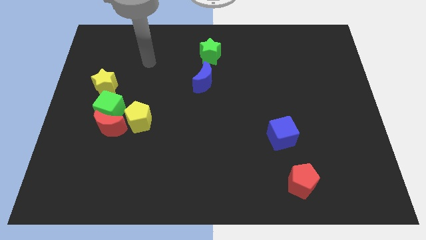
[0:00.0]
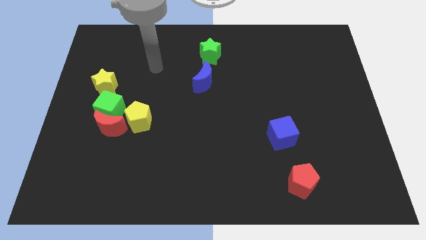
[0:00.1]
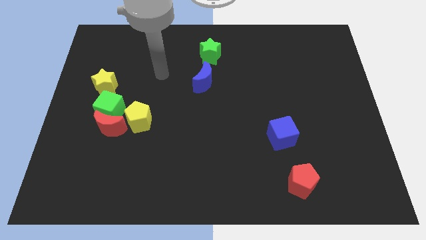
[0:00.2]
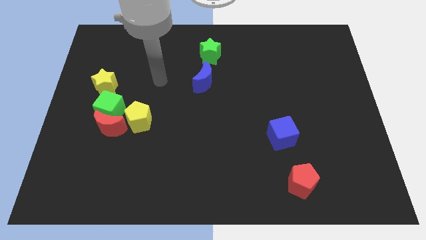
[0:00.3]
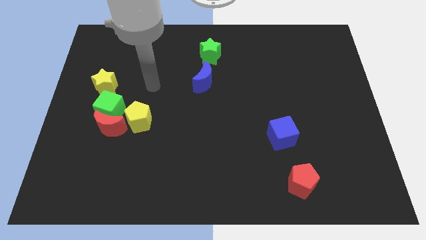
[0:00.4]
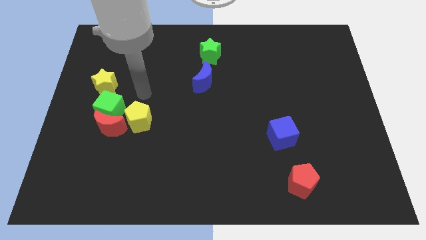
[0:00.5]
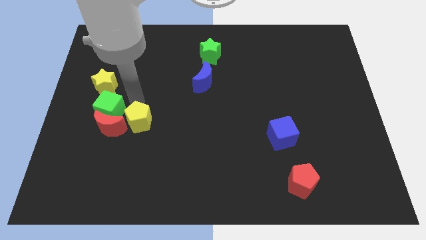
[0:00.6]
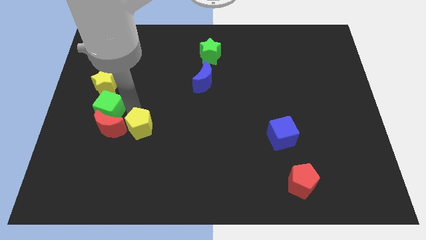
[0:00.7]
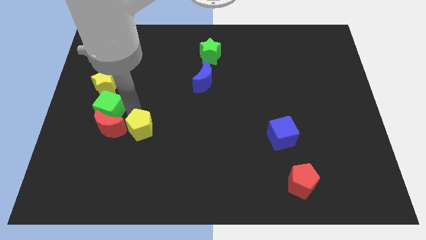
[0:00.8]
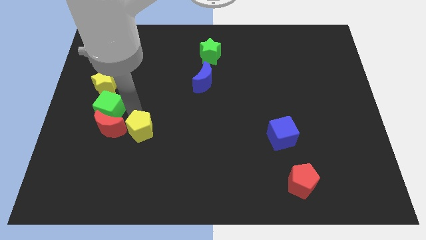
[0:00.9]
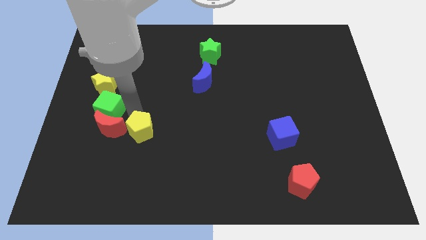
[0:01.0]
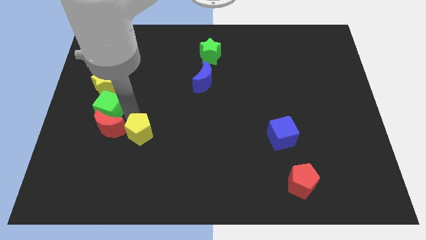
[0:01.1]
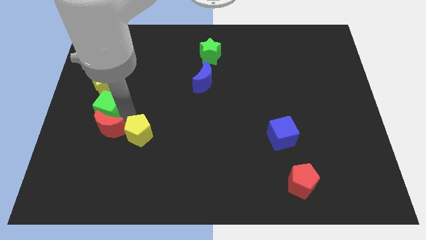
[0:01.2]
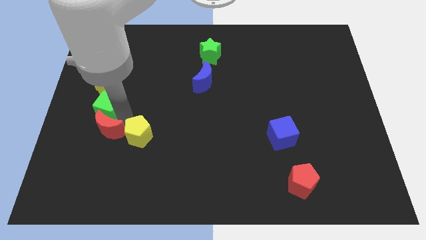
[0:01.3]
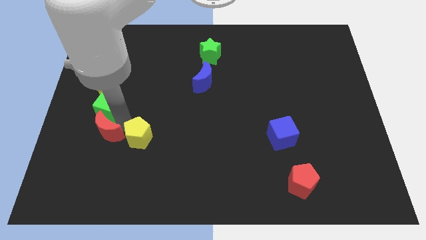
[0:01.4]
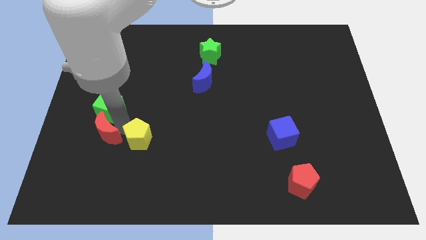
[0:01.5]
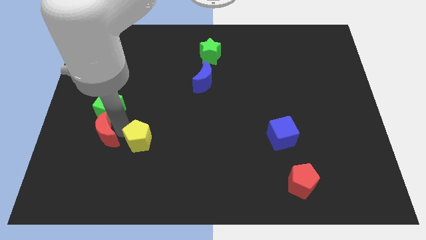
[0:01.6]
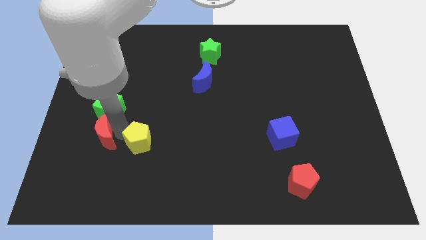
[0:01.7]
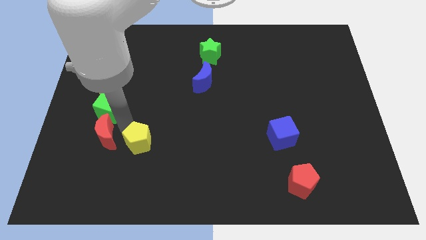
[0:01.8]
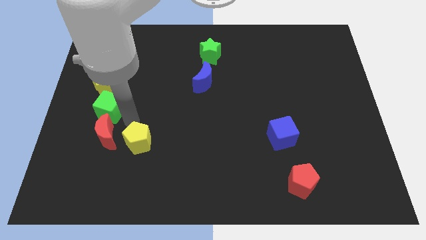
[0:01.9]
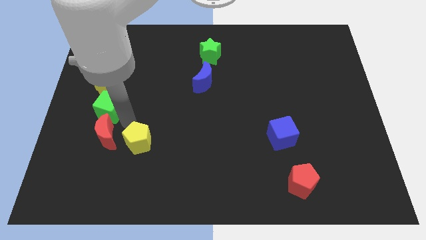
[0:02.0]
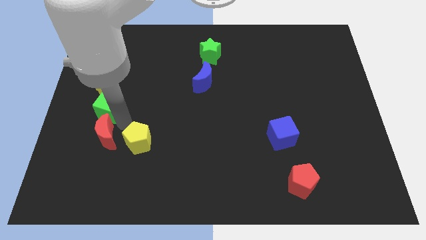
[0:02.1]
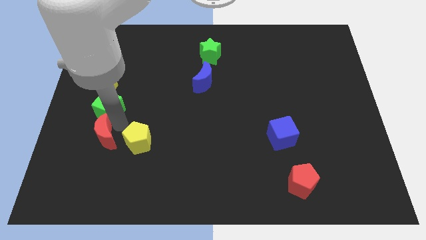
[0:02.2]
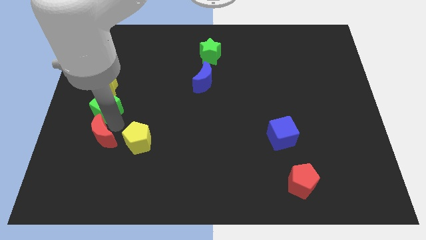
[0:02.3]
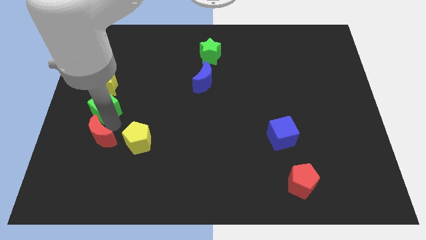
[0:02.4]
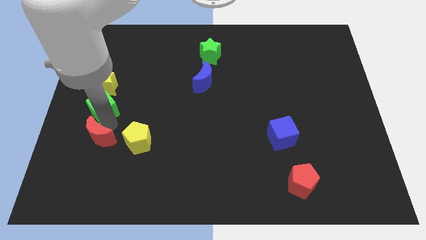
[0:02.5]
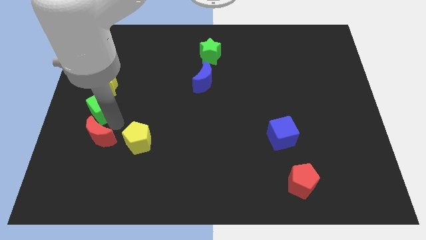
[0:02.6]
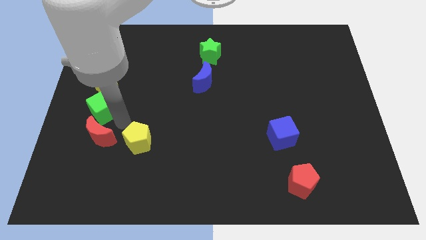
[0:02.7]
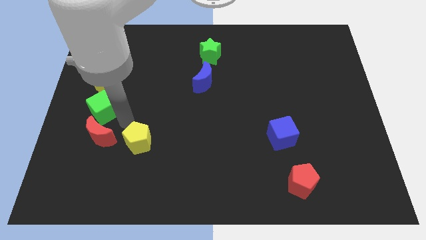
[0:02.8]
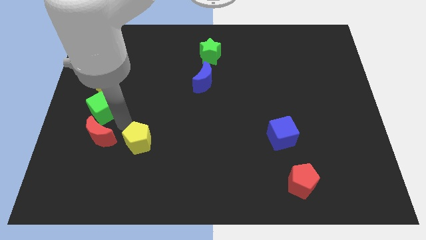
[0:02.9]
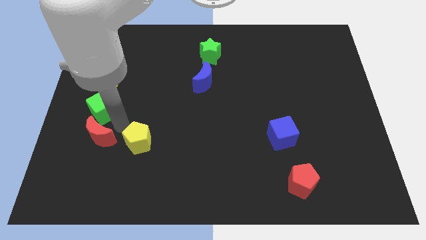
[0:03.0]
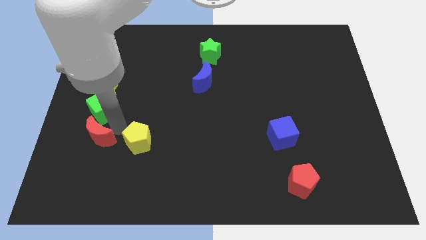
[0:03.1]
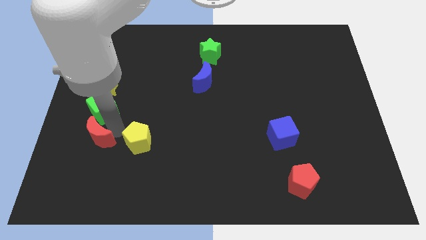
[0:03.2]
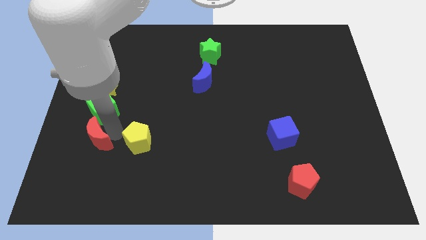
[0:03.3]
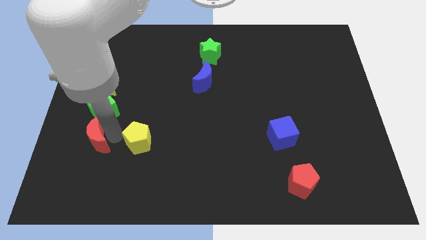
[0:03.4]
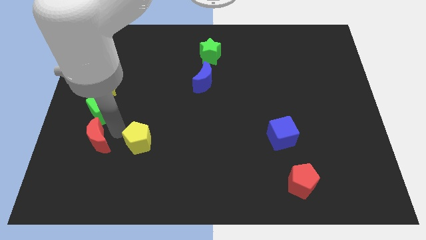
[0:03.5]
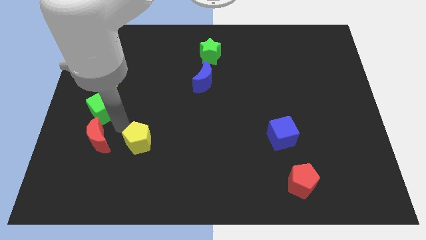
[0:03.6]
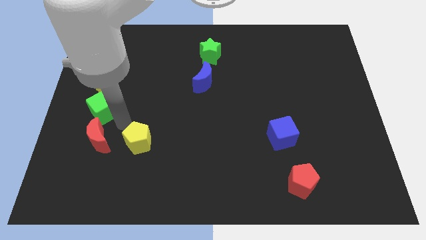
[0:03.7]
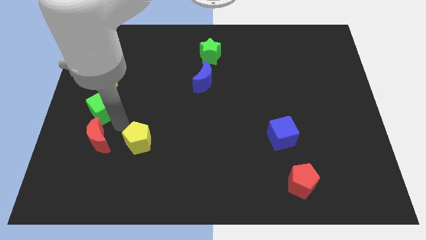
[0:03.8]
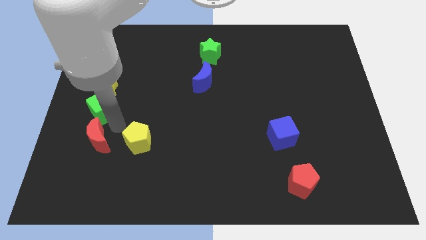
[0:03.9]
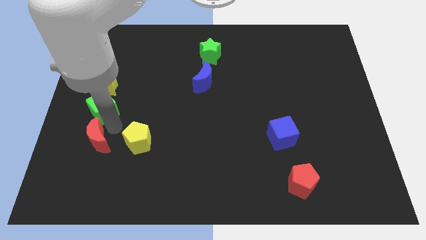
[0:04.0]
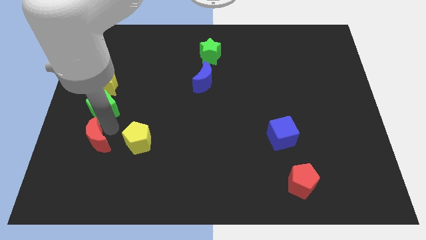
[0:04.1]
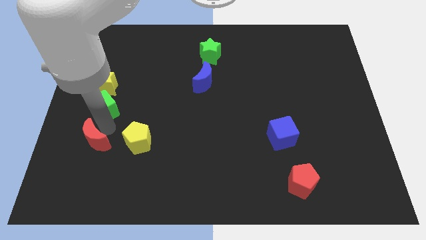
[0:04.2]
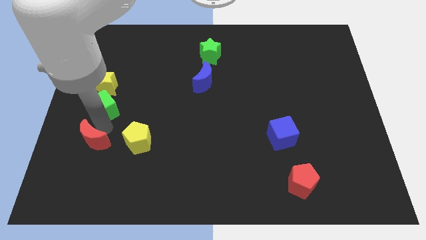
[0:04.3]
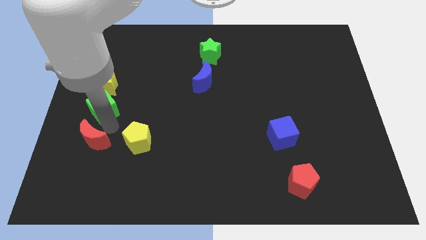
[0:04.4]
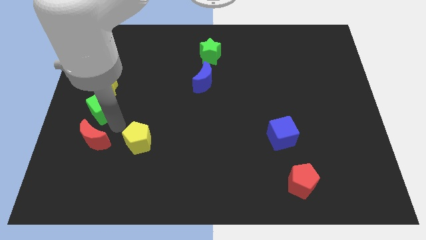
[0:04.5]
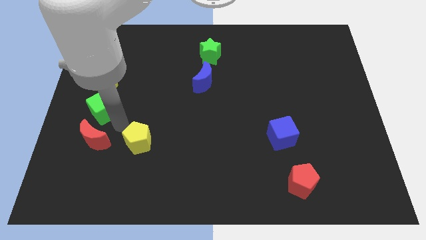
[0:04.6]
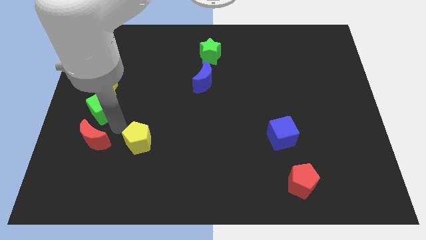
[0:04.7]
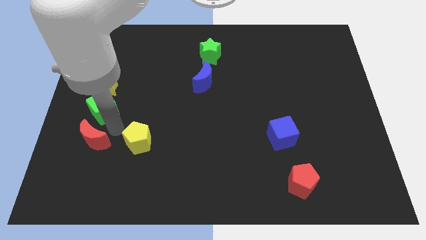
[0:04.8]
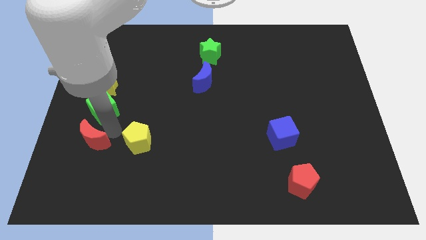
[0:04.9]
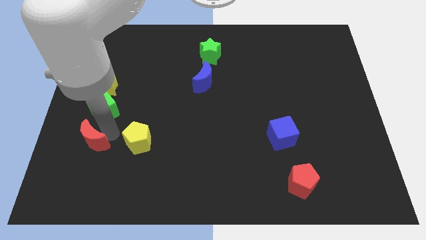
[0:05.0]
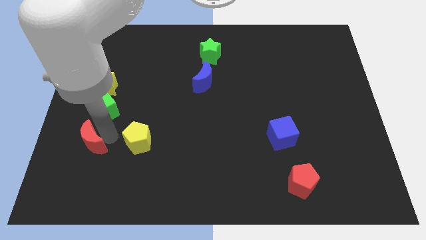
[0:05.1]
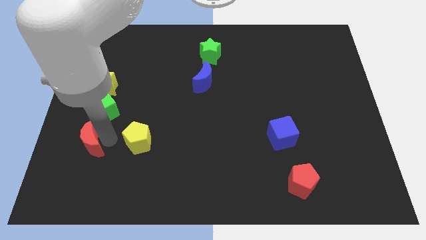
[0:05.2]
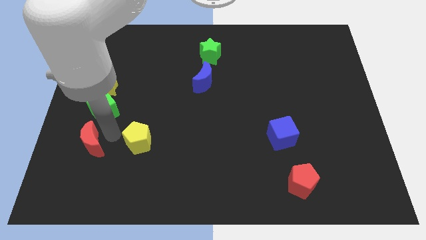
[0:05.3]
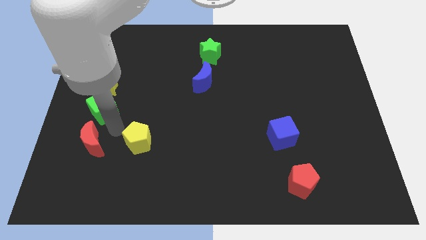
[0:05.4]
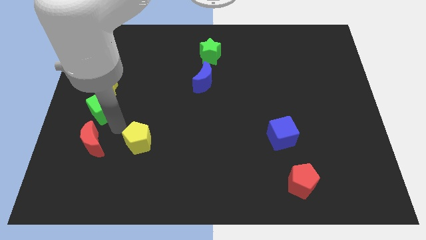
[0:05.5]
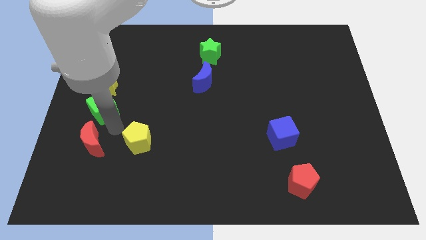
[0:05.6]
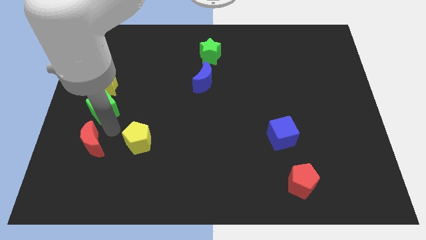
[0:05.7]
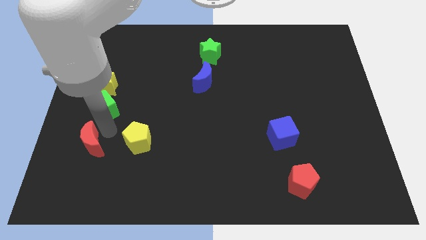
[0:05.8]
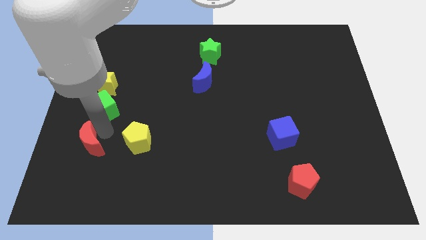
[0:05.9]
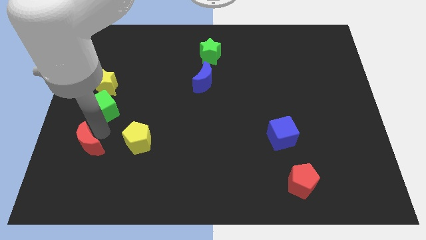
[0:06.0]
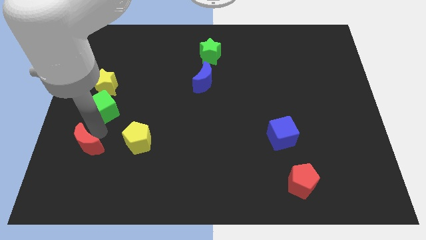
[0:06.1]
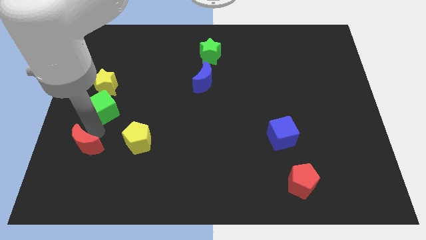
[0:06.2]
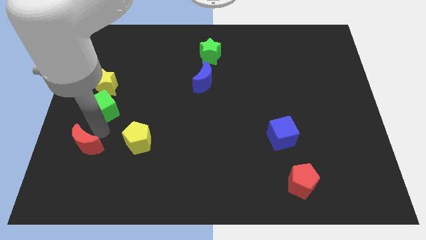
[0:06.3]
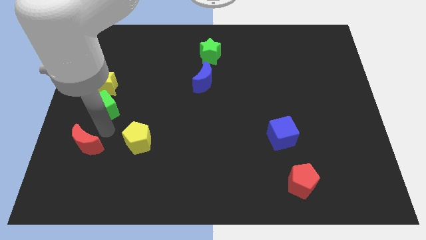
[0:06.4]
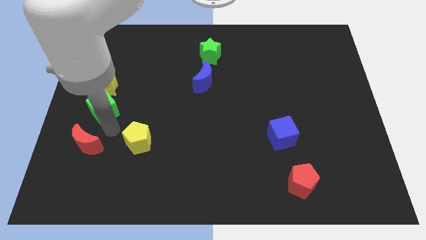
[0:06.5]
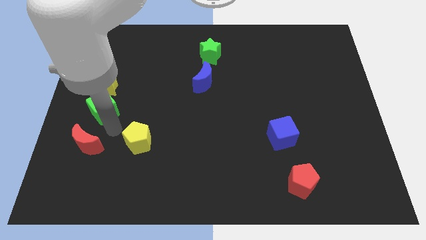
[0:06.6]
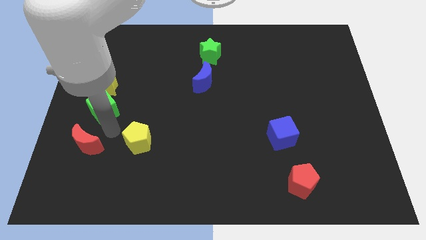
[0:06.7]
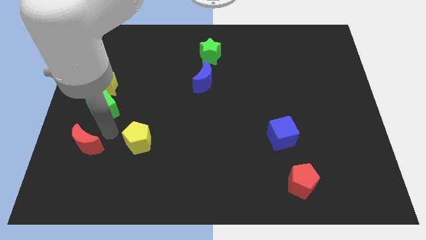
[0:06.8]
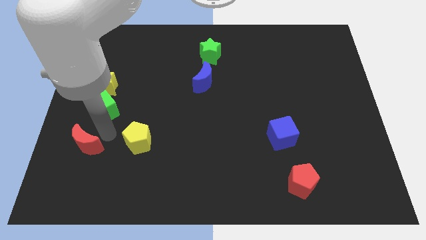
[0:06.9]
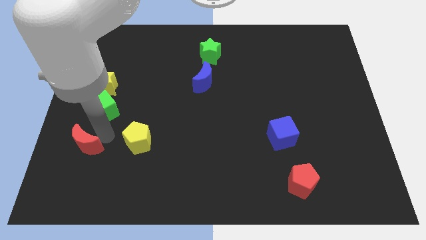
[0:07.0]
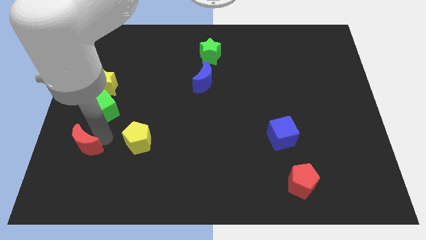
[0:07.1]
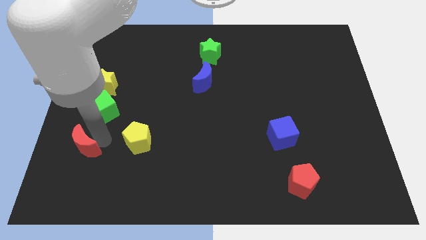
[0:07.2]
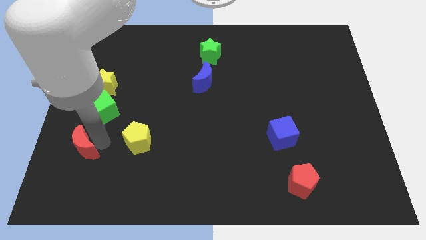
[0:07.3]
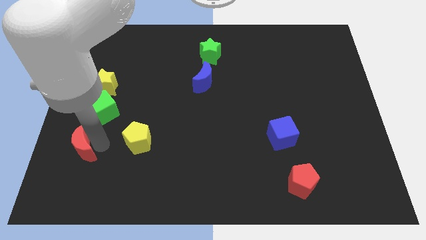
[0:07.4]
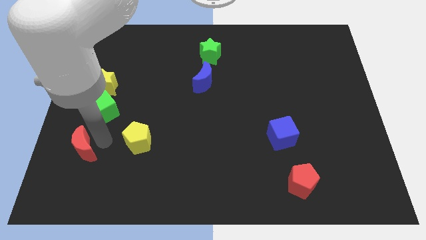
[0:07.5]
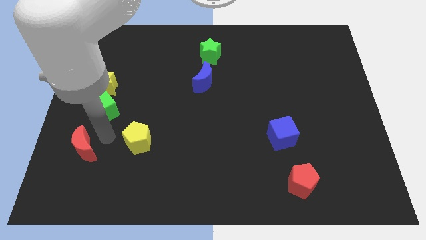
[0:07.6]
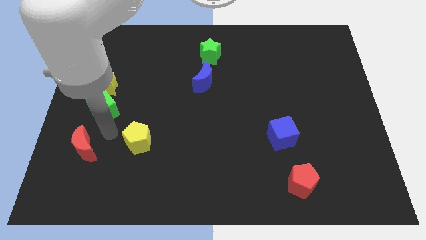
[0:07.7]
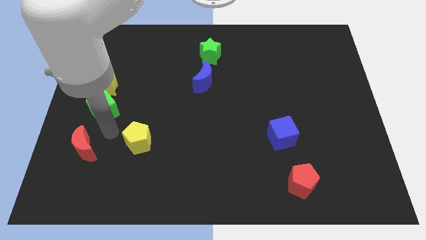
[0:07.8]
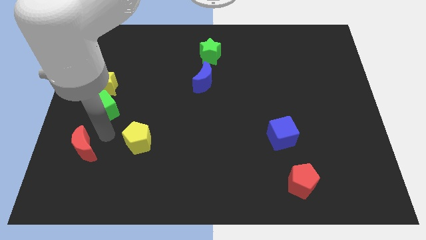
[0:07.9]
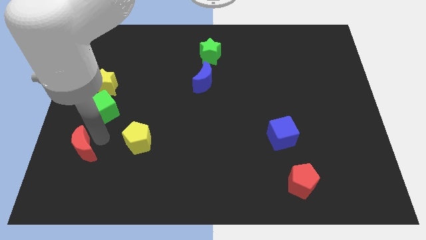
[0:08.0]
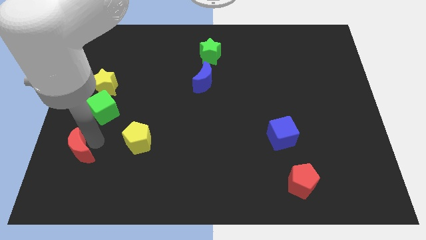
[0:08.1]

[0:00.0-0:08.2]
pull the red moon apart from the green cube and yellow pentagon

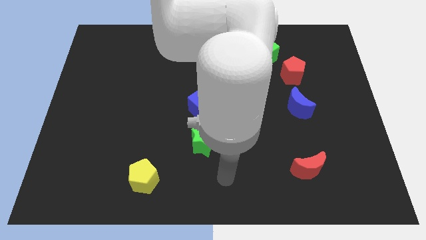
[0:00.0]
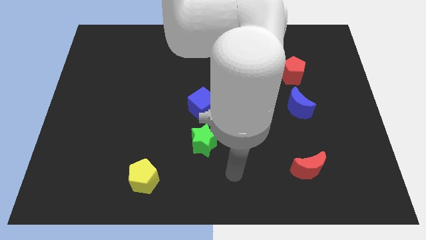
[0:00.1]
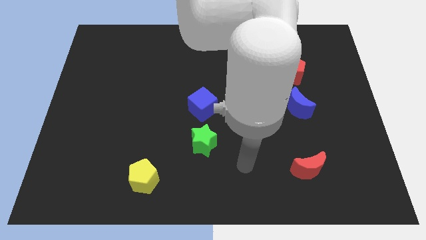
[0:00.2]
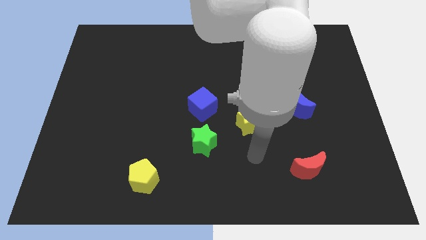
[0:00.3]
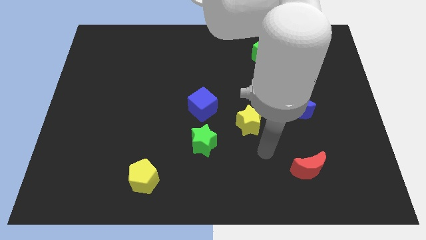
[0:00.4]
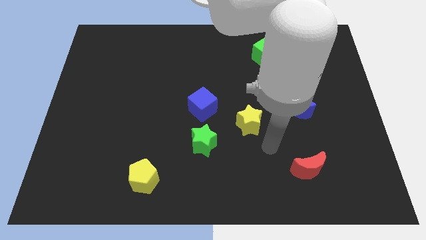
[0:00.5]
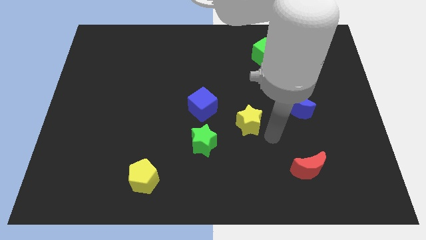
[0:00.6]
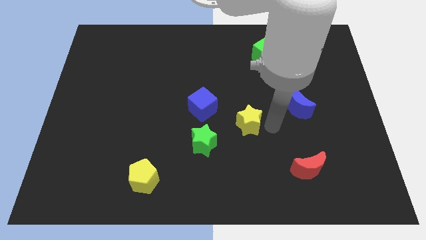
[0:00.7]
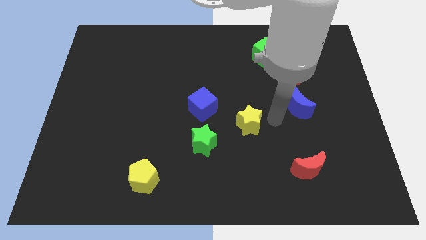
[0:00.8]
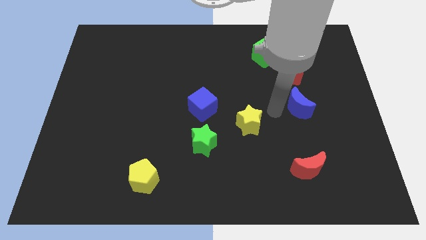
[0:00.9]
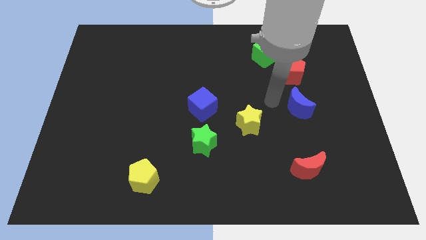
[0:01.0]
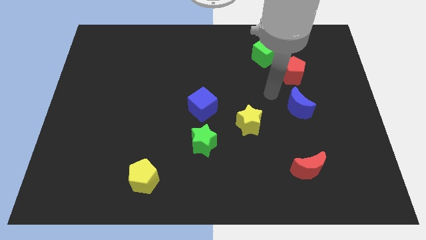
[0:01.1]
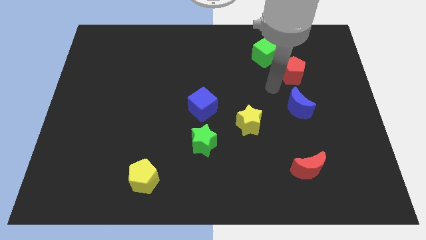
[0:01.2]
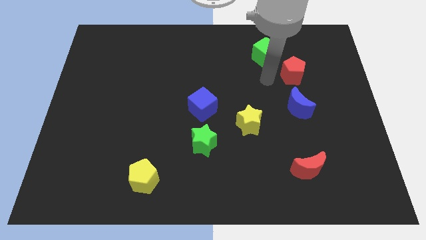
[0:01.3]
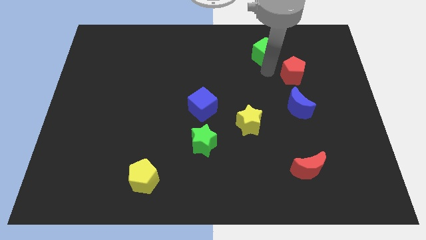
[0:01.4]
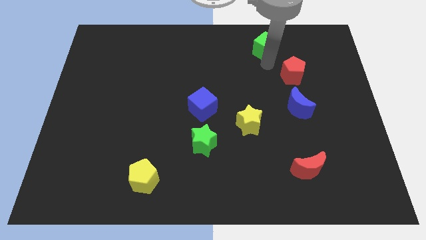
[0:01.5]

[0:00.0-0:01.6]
separate the red pentagon from the green cube
